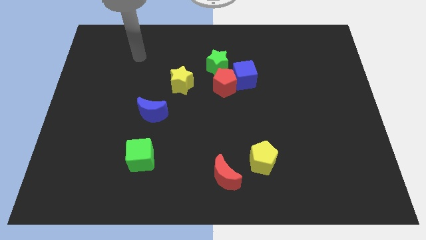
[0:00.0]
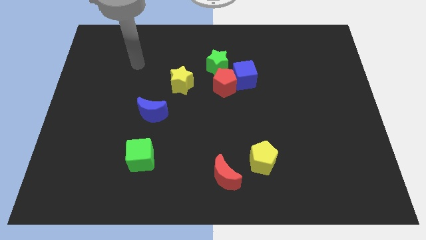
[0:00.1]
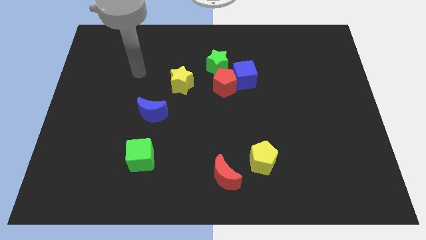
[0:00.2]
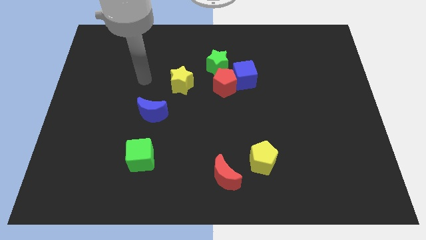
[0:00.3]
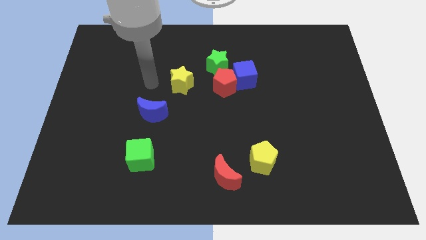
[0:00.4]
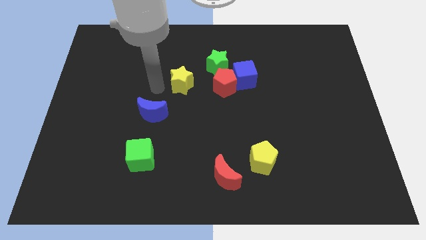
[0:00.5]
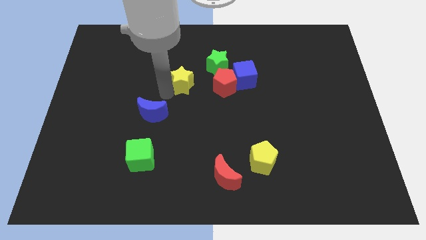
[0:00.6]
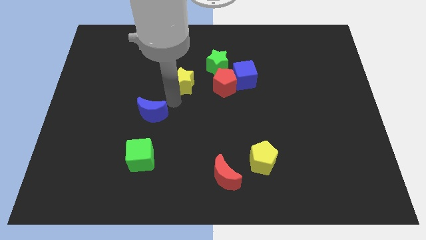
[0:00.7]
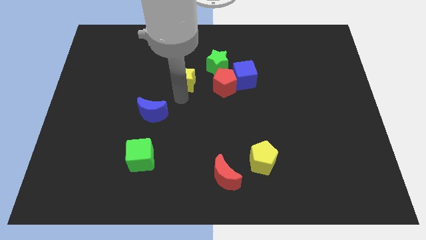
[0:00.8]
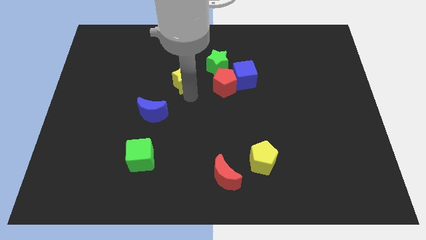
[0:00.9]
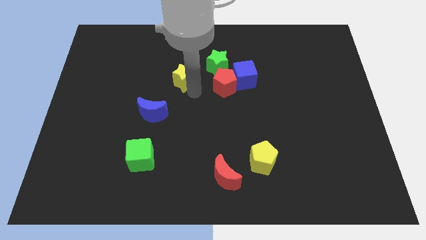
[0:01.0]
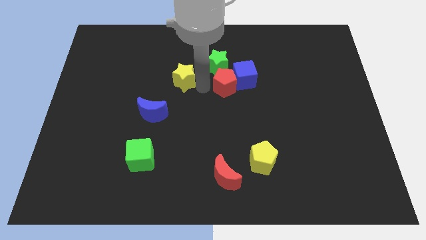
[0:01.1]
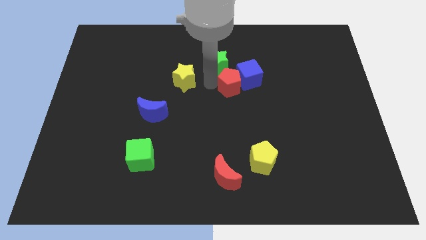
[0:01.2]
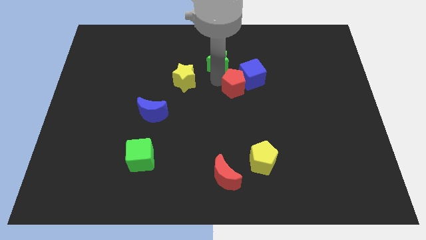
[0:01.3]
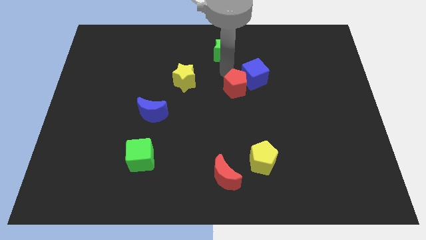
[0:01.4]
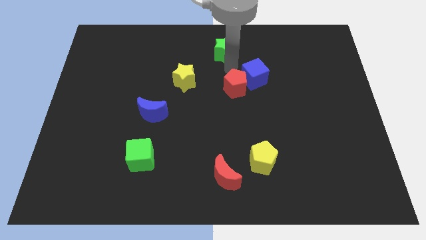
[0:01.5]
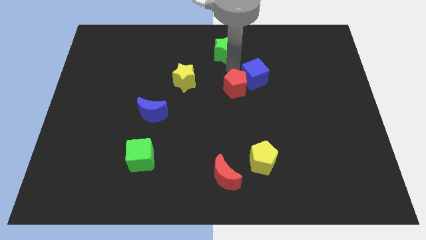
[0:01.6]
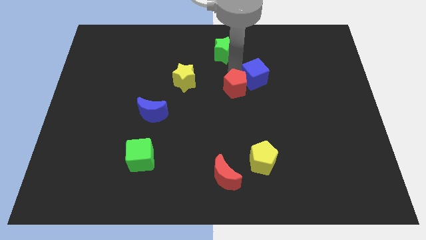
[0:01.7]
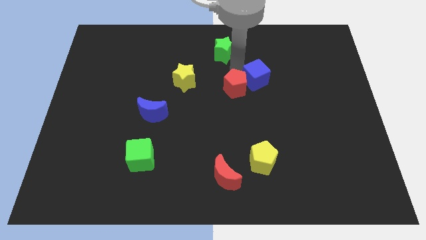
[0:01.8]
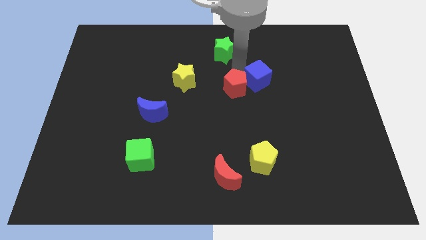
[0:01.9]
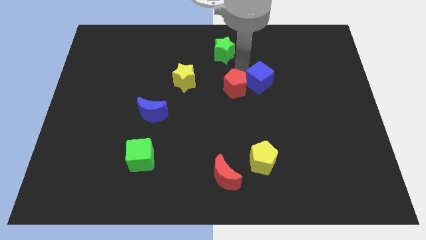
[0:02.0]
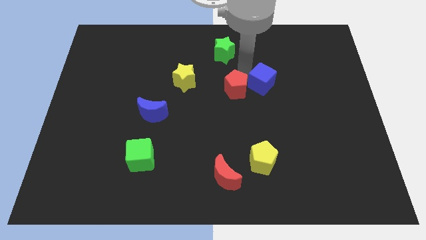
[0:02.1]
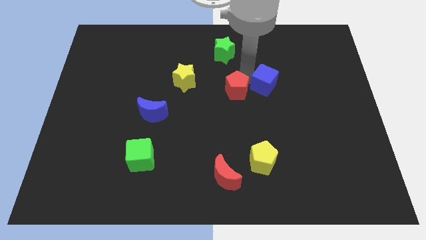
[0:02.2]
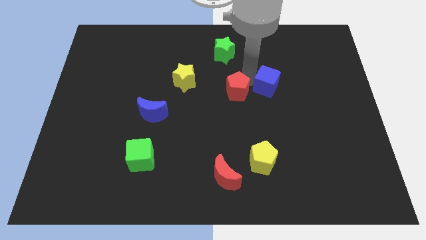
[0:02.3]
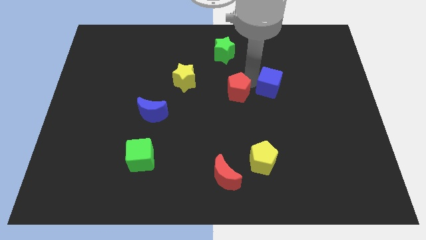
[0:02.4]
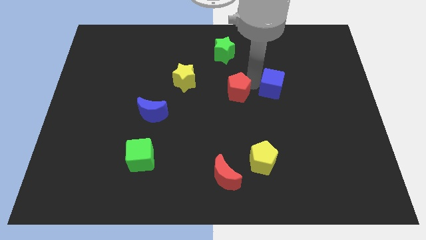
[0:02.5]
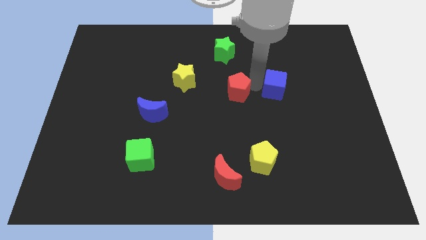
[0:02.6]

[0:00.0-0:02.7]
slightly slide the blue cube right

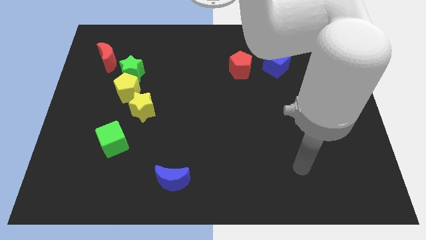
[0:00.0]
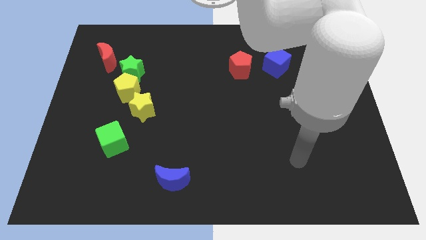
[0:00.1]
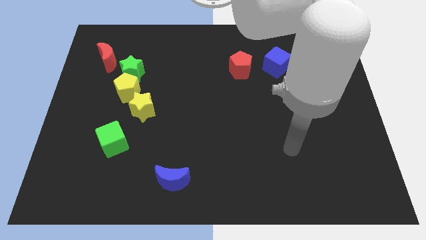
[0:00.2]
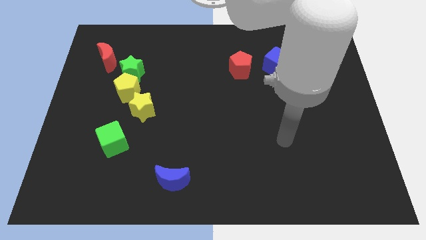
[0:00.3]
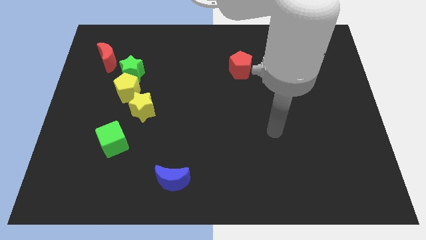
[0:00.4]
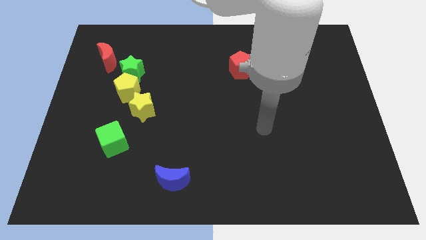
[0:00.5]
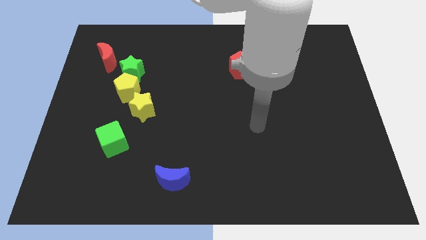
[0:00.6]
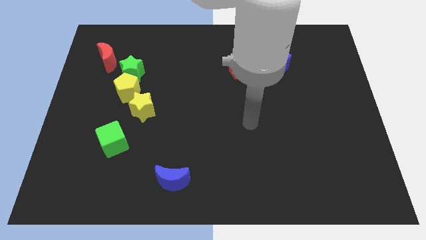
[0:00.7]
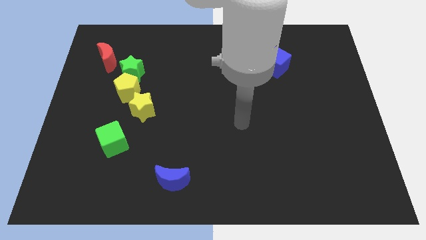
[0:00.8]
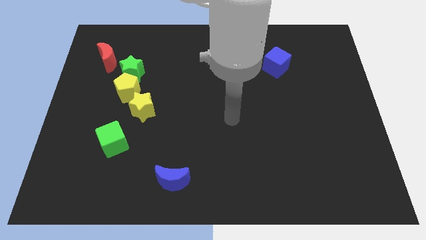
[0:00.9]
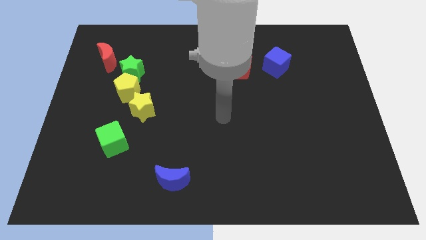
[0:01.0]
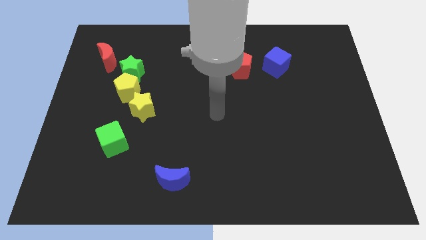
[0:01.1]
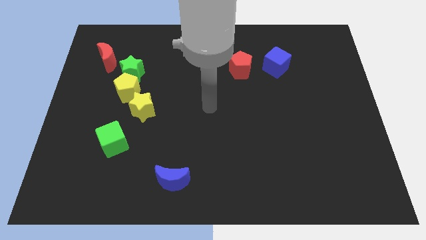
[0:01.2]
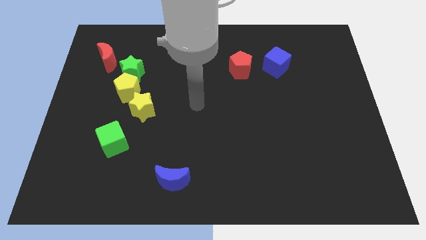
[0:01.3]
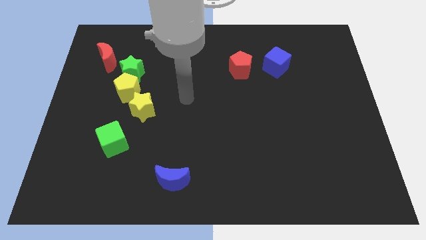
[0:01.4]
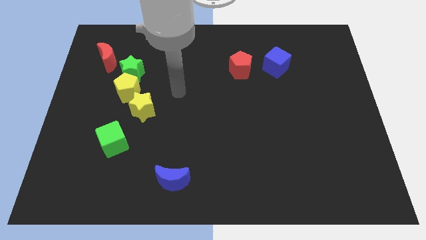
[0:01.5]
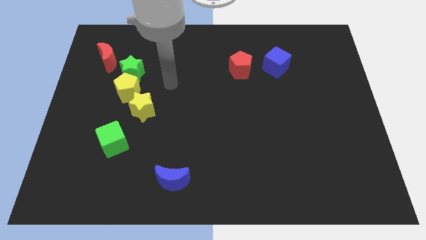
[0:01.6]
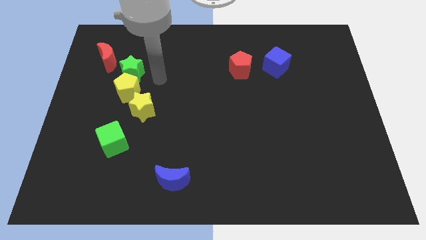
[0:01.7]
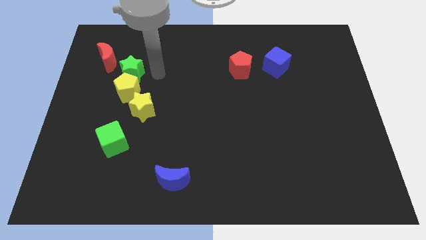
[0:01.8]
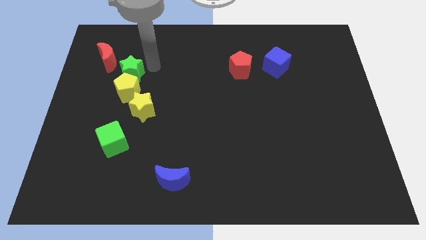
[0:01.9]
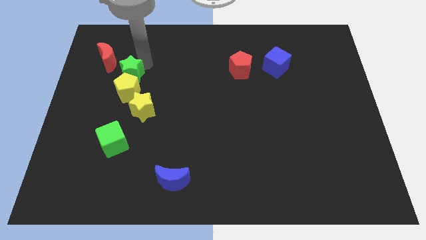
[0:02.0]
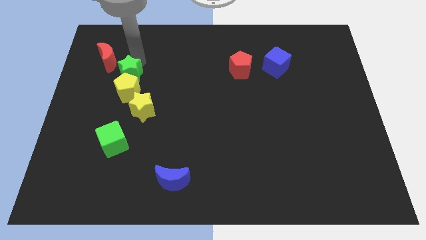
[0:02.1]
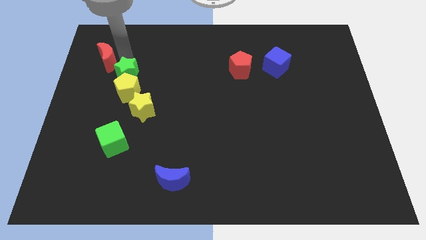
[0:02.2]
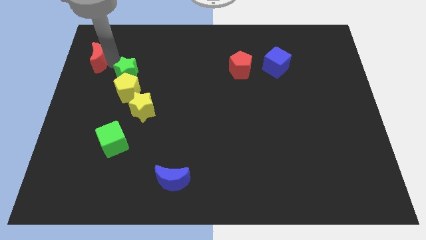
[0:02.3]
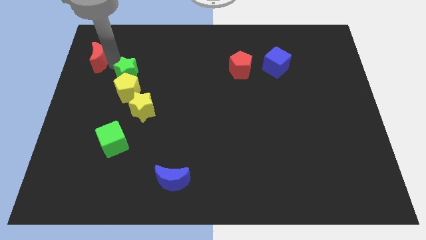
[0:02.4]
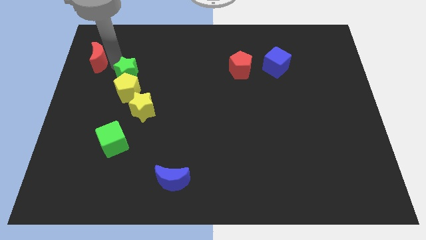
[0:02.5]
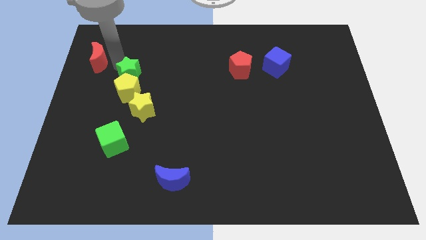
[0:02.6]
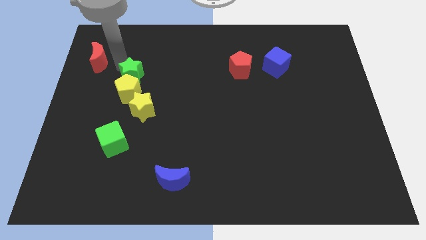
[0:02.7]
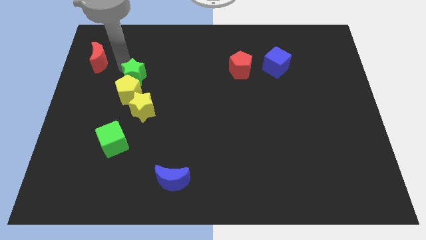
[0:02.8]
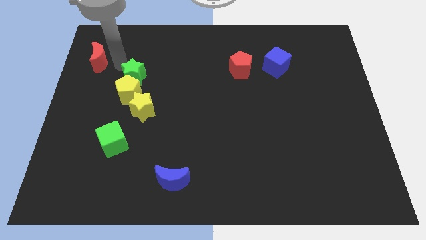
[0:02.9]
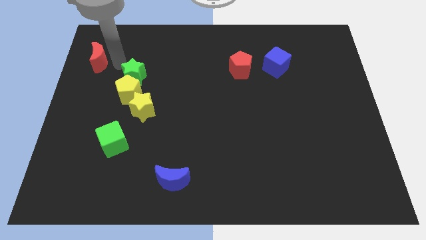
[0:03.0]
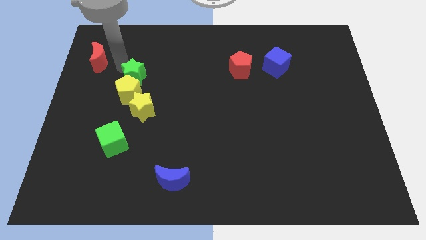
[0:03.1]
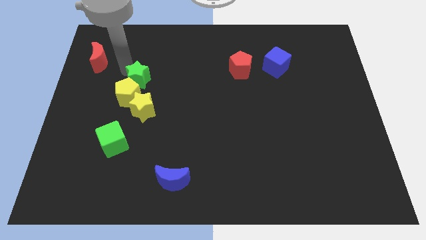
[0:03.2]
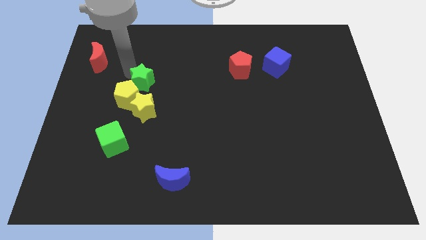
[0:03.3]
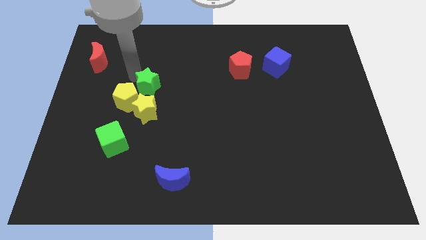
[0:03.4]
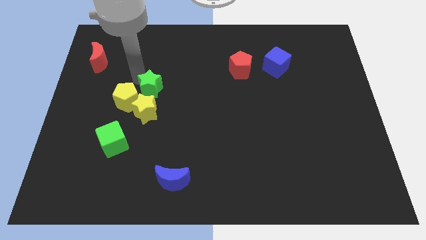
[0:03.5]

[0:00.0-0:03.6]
move the green star down and then right somewhat

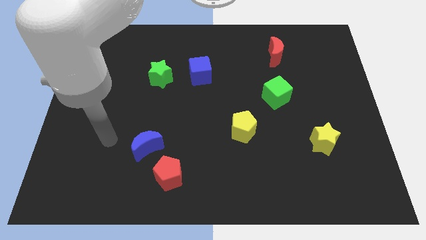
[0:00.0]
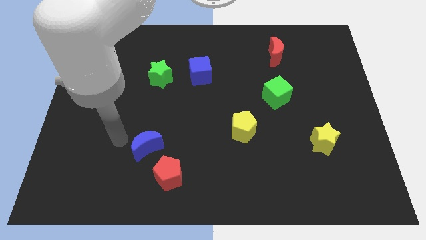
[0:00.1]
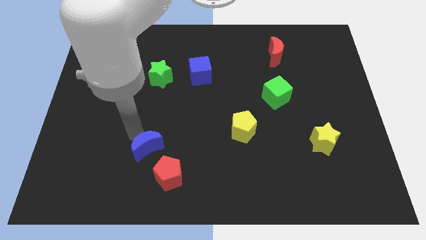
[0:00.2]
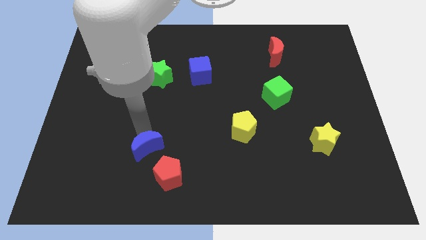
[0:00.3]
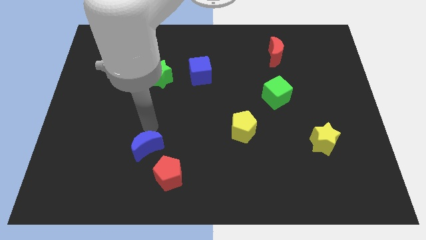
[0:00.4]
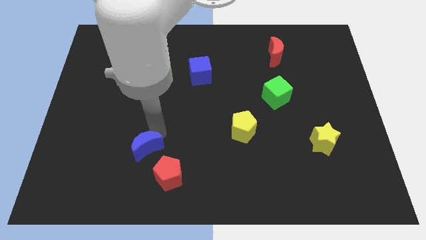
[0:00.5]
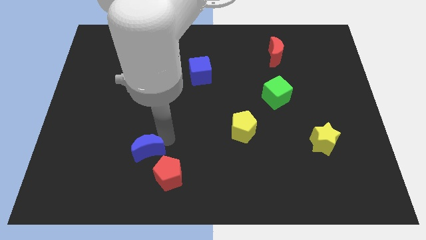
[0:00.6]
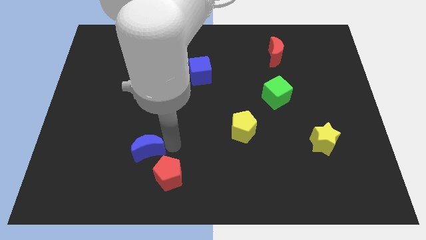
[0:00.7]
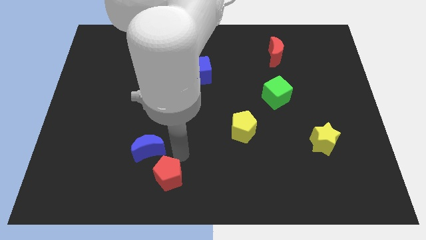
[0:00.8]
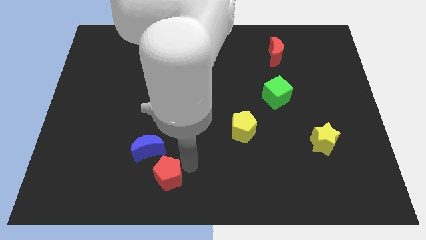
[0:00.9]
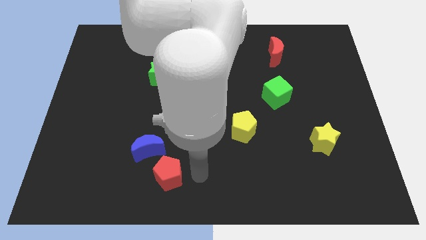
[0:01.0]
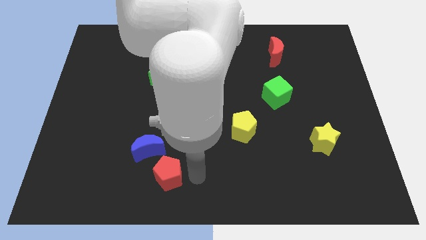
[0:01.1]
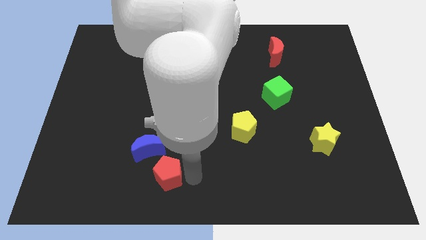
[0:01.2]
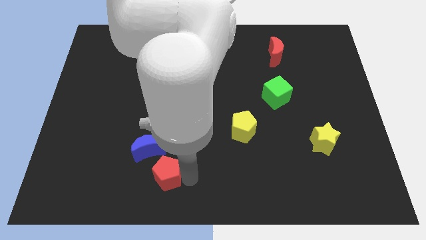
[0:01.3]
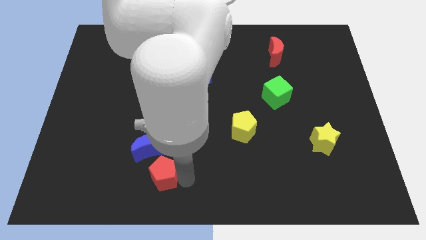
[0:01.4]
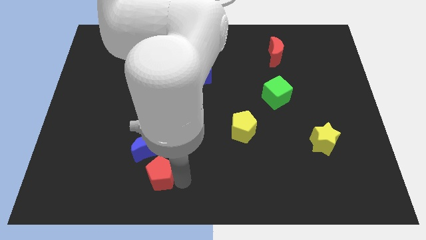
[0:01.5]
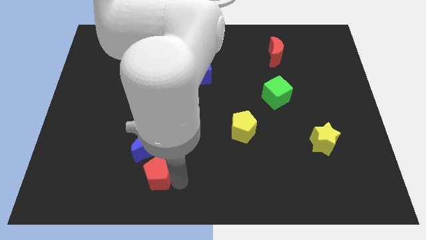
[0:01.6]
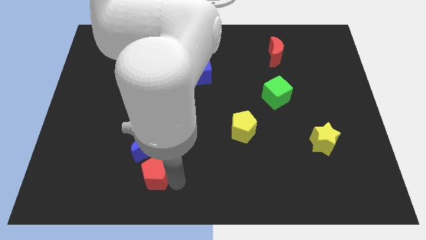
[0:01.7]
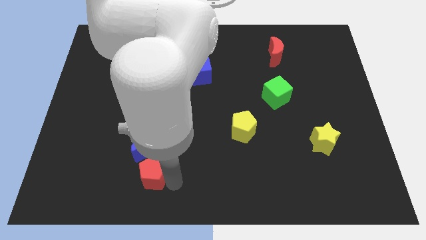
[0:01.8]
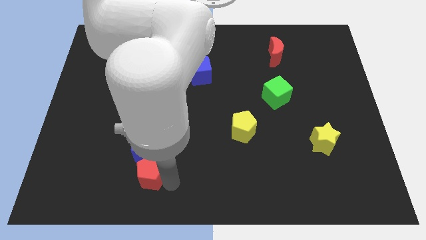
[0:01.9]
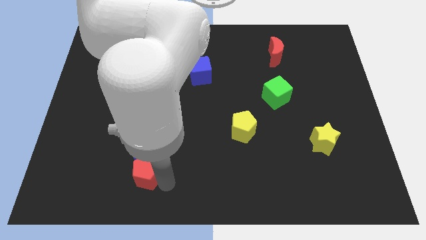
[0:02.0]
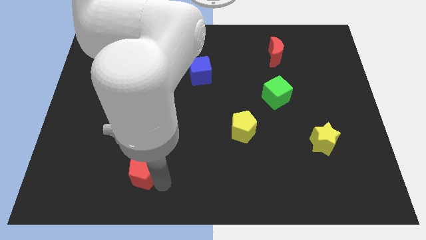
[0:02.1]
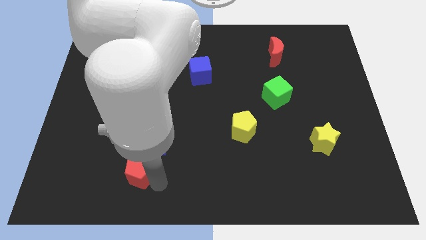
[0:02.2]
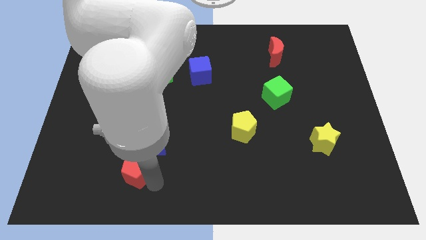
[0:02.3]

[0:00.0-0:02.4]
move the red pentagon a bit to the left
